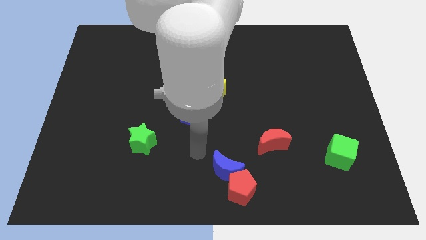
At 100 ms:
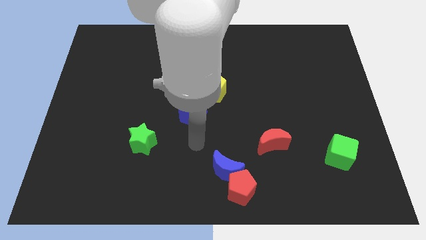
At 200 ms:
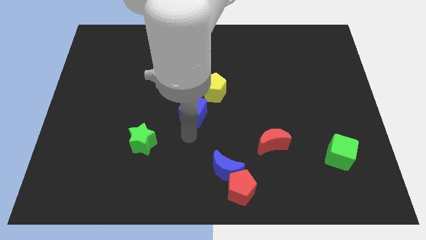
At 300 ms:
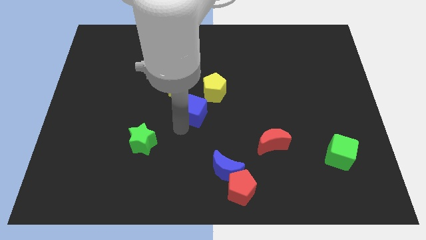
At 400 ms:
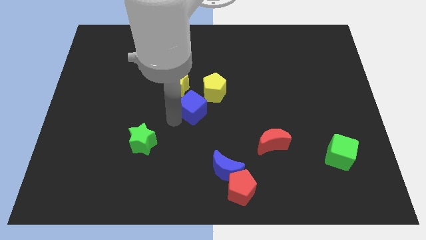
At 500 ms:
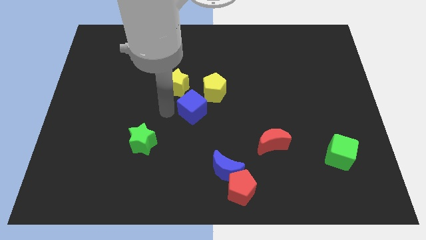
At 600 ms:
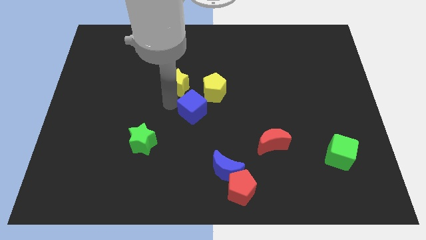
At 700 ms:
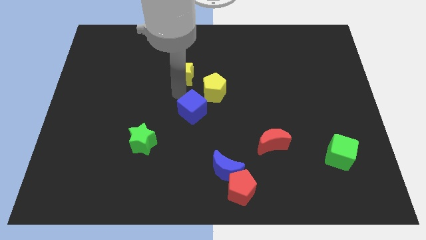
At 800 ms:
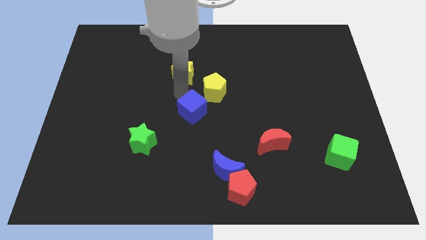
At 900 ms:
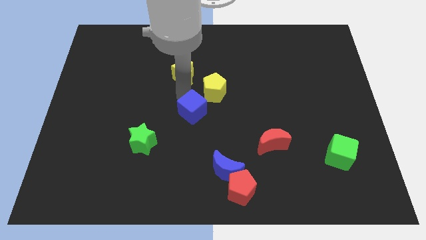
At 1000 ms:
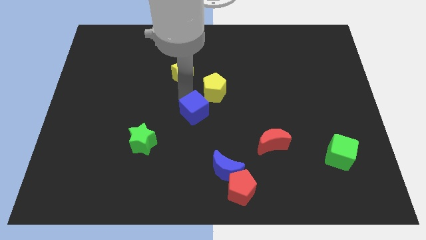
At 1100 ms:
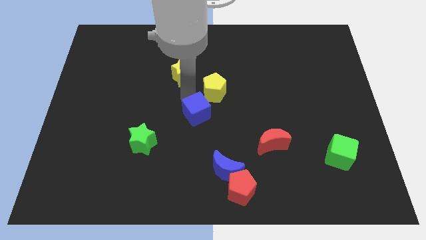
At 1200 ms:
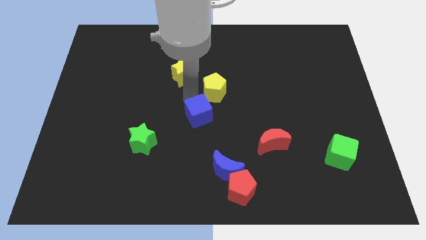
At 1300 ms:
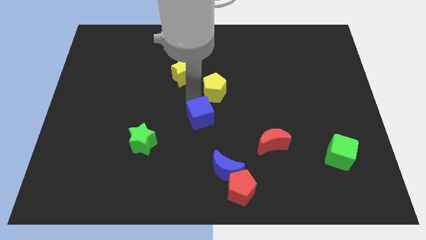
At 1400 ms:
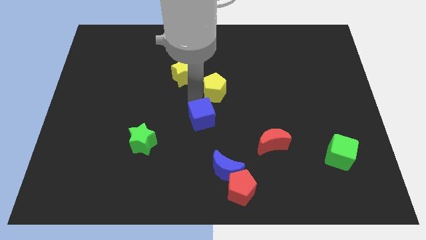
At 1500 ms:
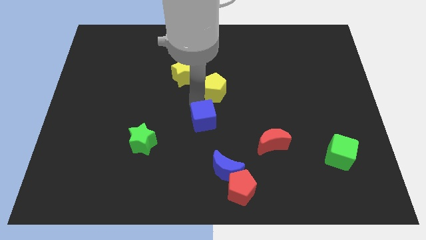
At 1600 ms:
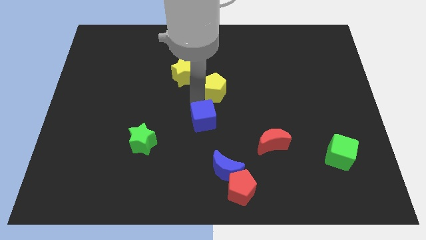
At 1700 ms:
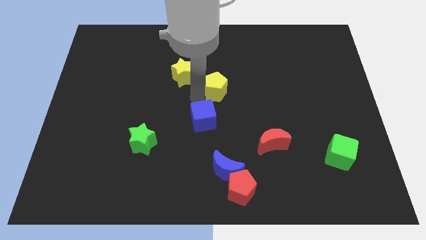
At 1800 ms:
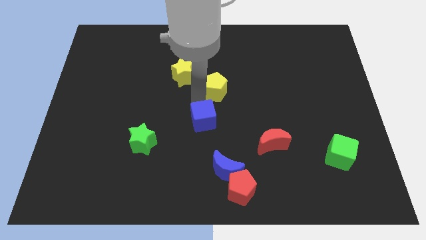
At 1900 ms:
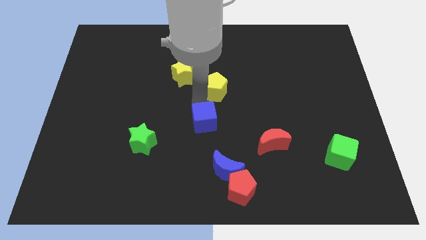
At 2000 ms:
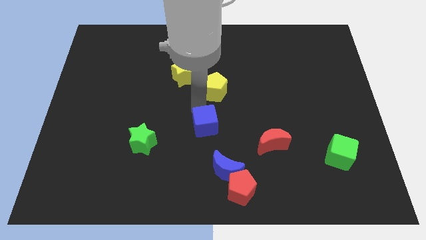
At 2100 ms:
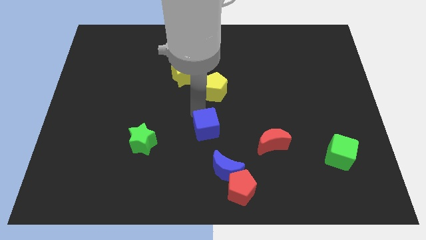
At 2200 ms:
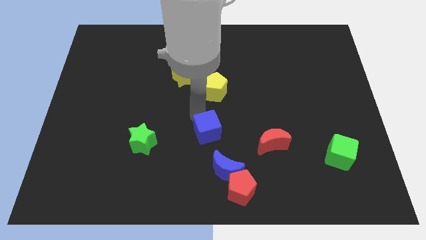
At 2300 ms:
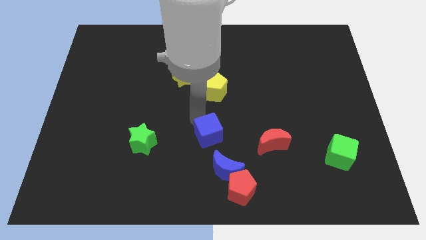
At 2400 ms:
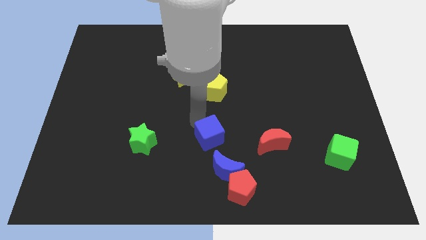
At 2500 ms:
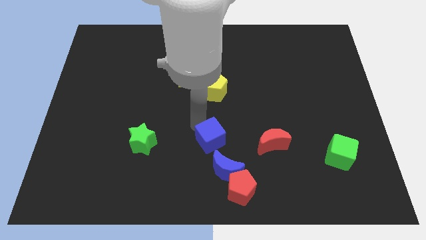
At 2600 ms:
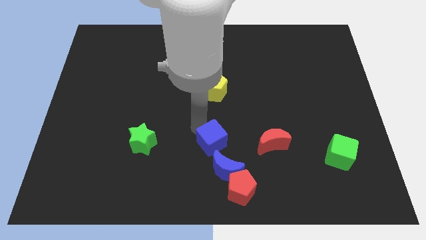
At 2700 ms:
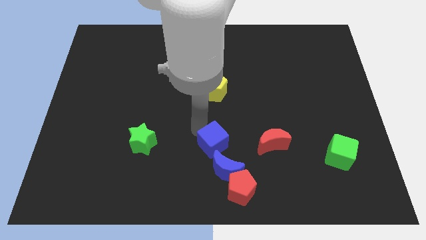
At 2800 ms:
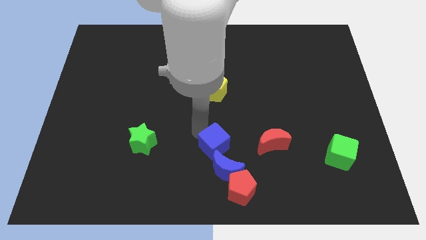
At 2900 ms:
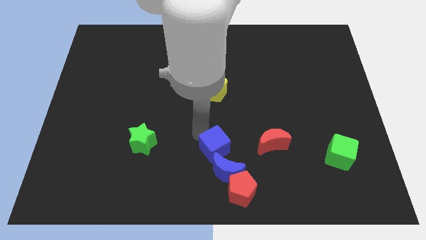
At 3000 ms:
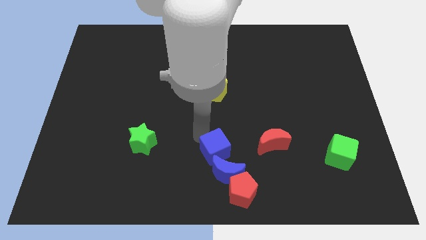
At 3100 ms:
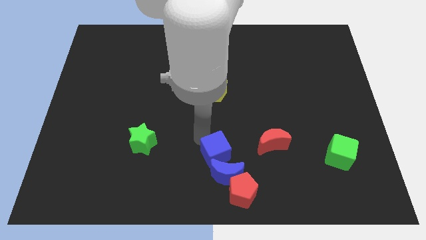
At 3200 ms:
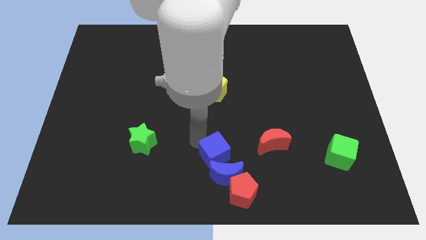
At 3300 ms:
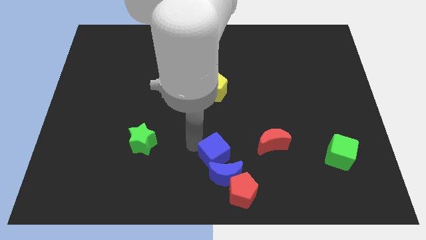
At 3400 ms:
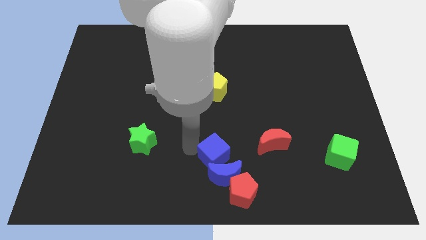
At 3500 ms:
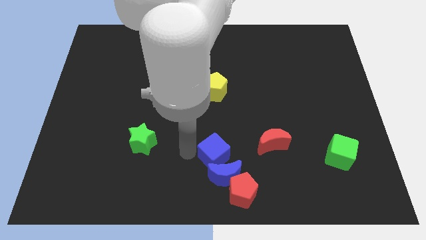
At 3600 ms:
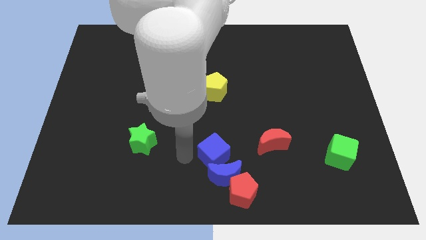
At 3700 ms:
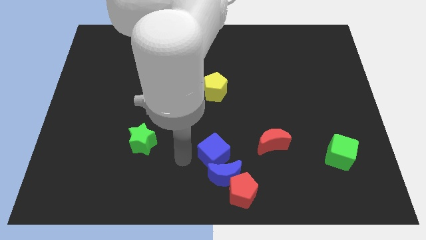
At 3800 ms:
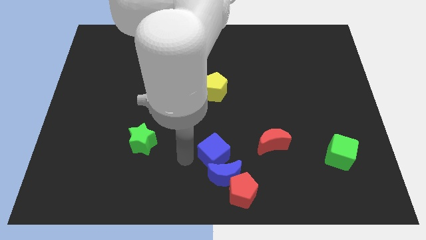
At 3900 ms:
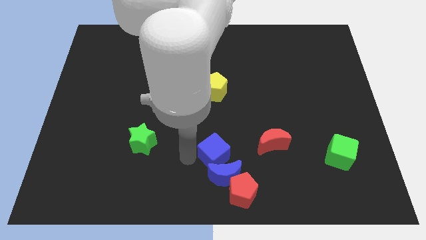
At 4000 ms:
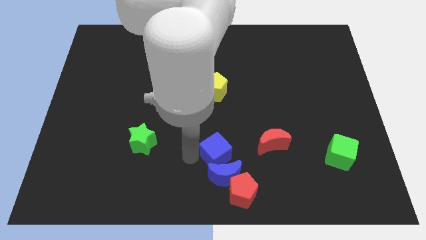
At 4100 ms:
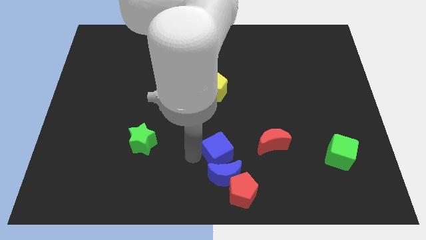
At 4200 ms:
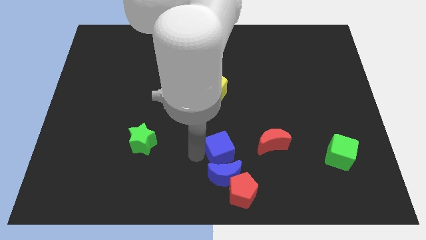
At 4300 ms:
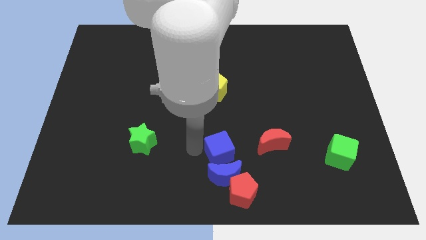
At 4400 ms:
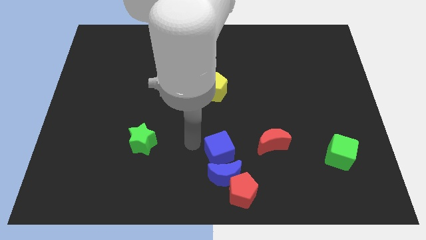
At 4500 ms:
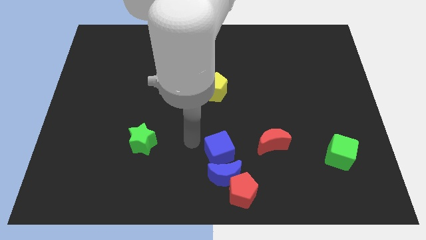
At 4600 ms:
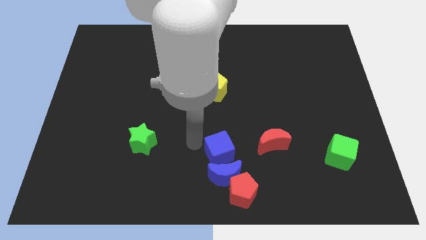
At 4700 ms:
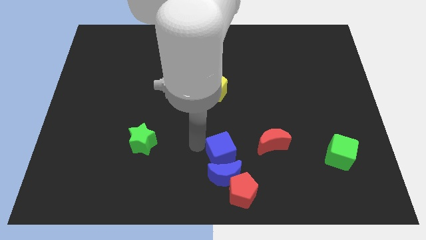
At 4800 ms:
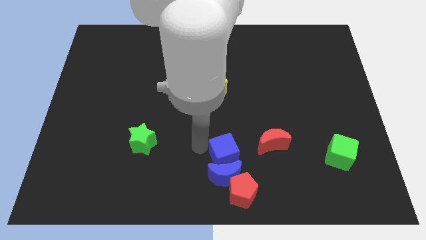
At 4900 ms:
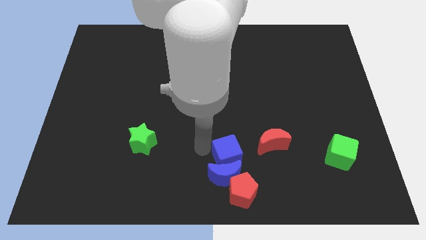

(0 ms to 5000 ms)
push the blue cube to the bottom left of the red moon

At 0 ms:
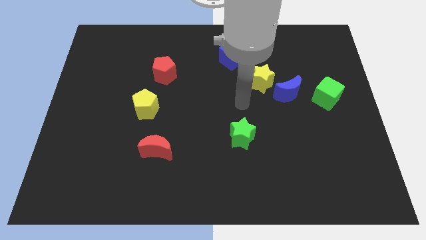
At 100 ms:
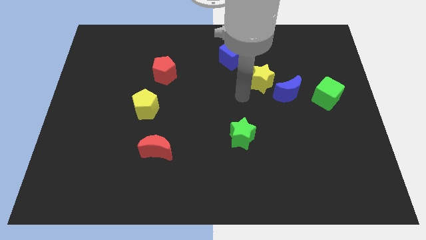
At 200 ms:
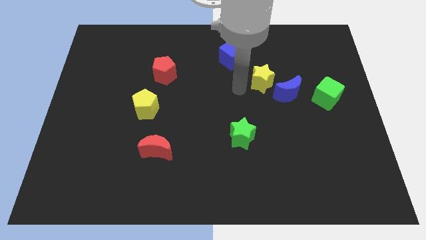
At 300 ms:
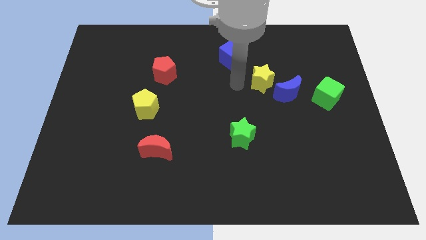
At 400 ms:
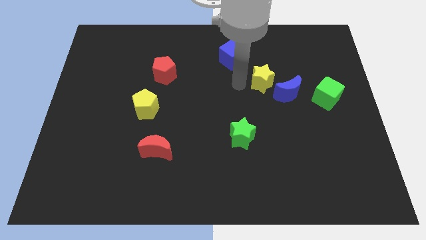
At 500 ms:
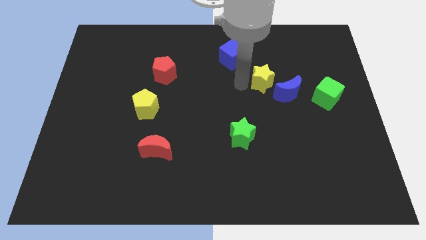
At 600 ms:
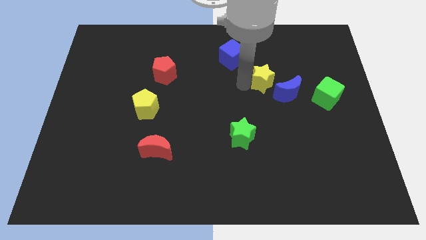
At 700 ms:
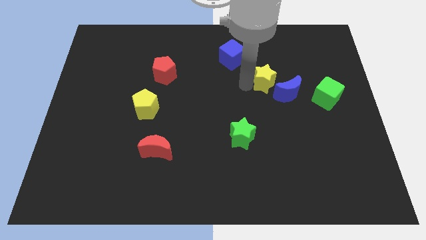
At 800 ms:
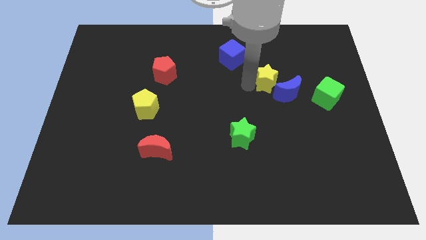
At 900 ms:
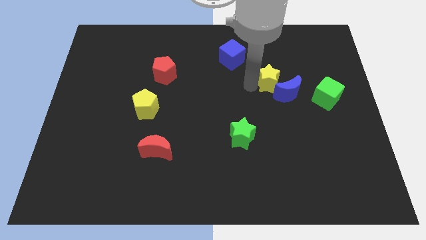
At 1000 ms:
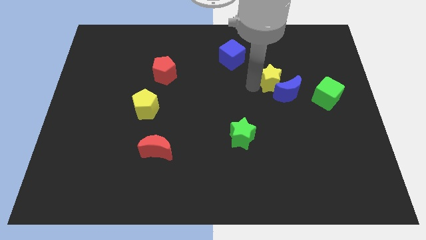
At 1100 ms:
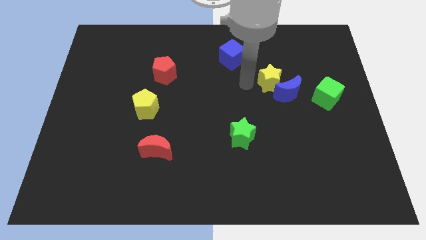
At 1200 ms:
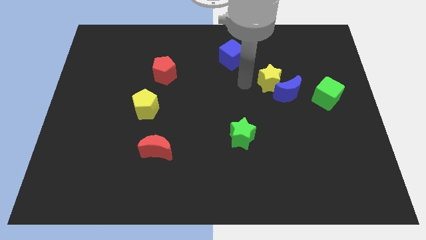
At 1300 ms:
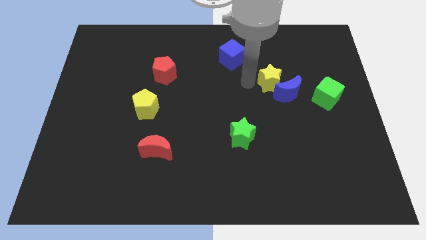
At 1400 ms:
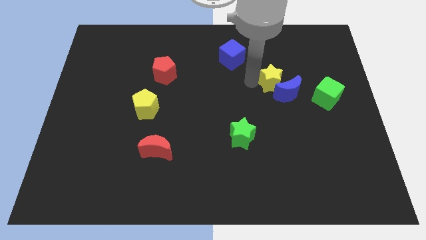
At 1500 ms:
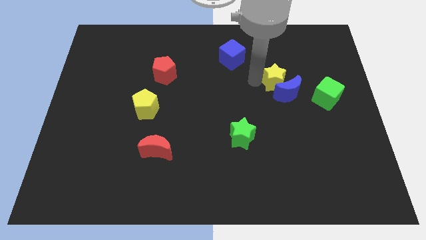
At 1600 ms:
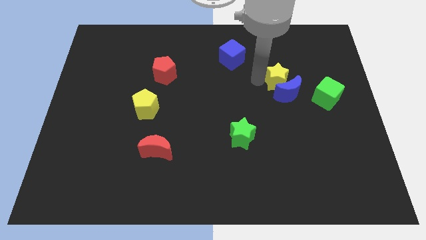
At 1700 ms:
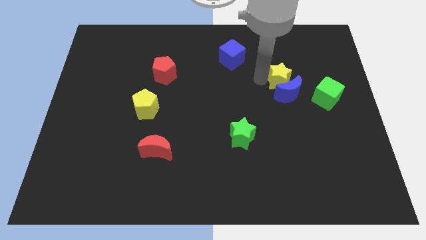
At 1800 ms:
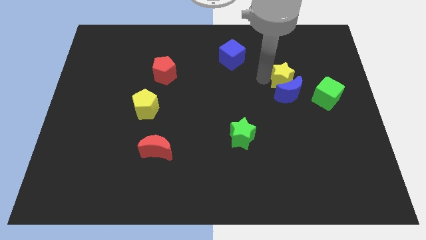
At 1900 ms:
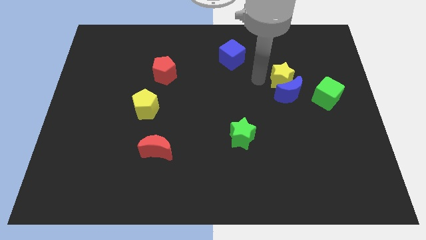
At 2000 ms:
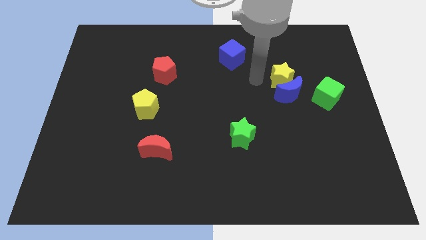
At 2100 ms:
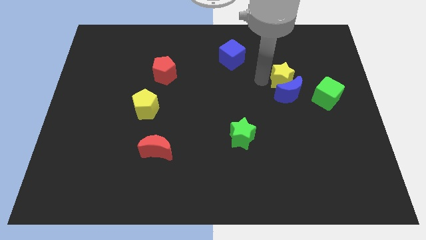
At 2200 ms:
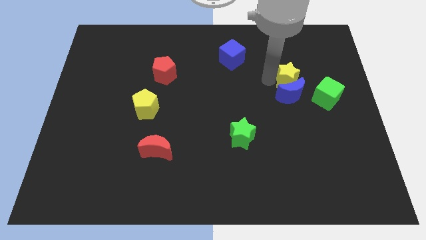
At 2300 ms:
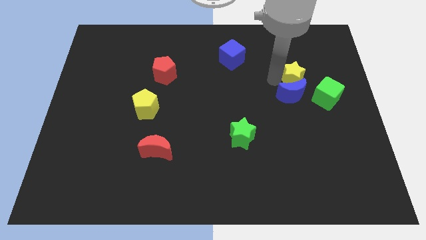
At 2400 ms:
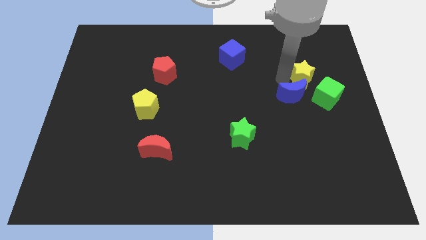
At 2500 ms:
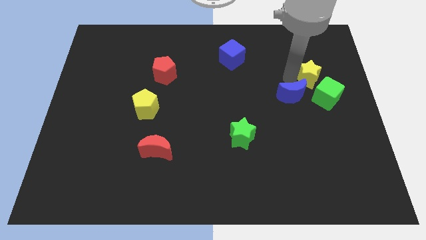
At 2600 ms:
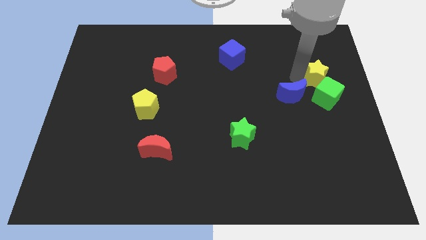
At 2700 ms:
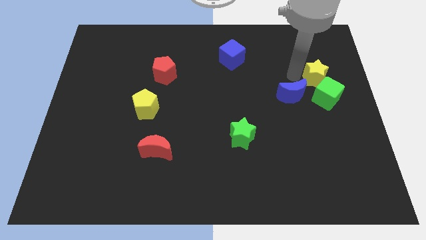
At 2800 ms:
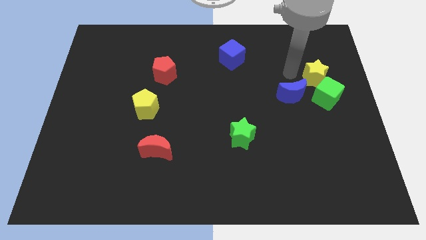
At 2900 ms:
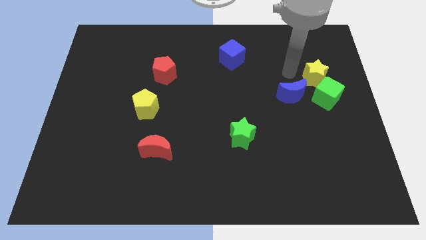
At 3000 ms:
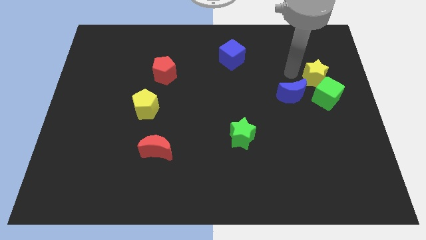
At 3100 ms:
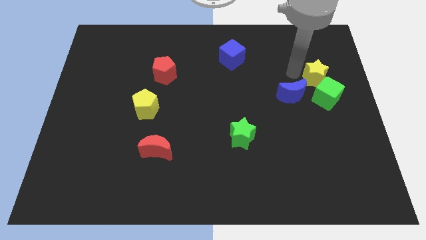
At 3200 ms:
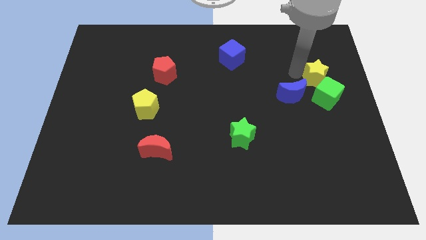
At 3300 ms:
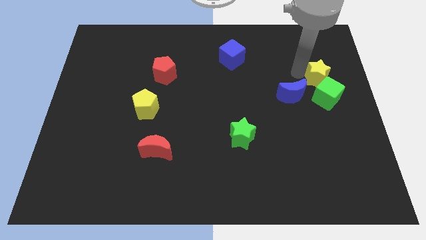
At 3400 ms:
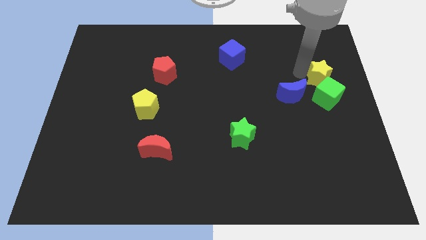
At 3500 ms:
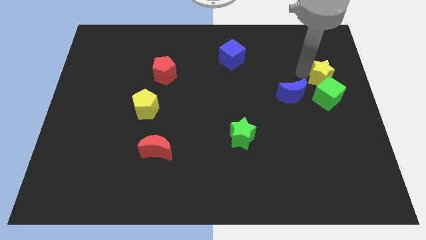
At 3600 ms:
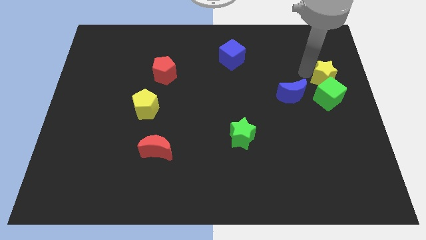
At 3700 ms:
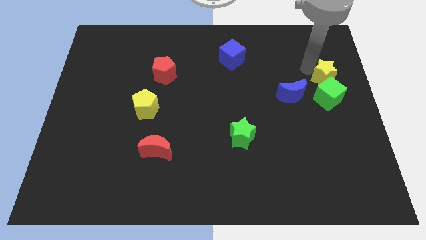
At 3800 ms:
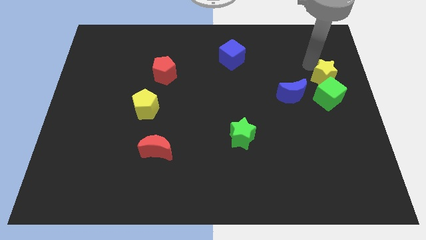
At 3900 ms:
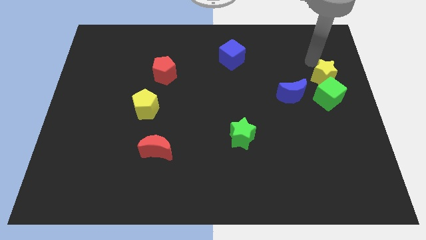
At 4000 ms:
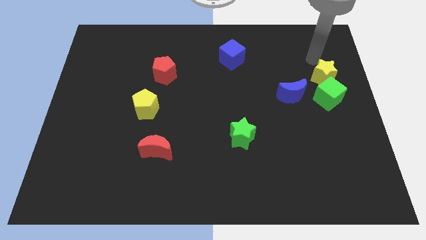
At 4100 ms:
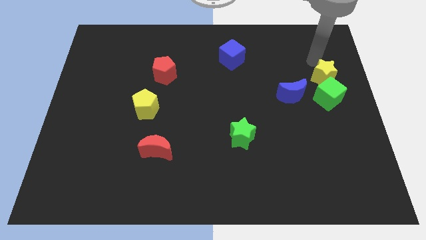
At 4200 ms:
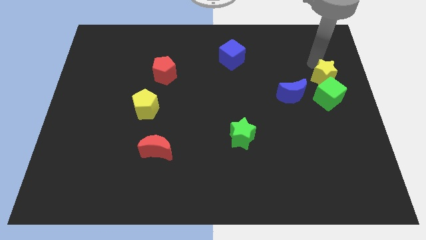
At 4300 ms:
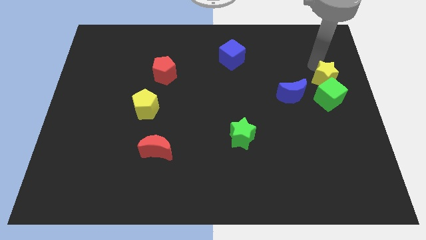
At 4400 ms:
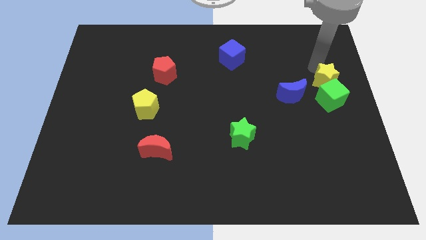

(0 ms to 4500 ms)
move the yellow star to the right side of the blue moon
